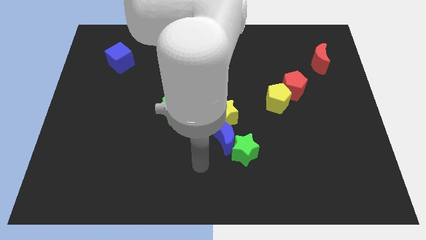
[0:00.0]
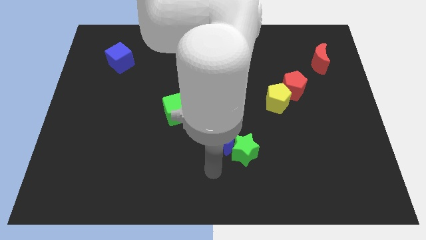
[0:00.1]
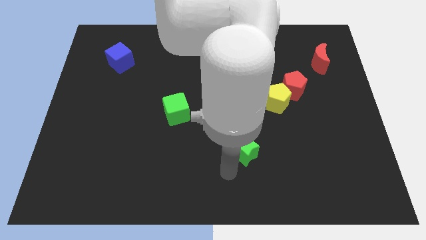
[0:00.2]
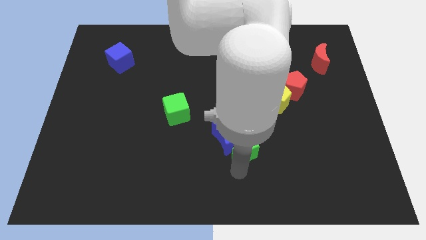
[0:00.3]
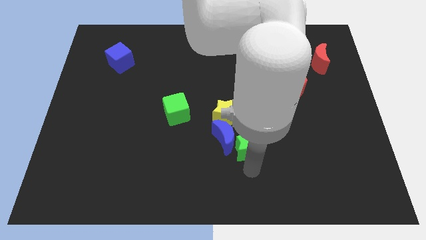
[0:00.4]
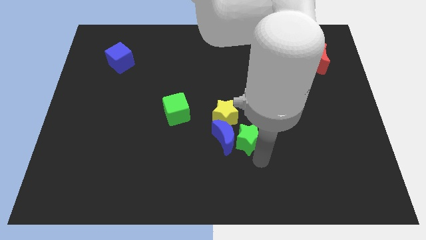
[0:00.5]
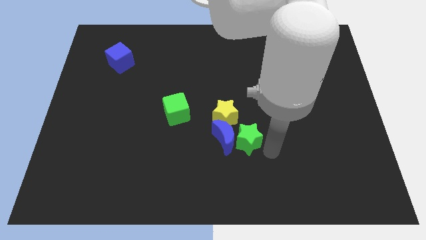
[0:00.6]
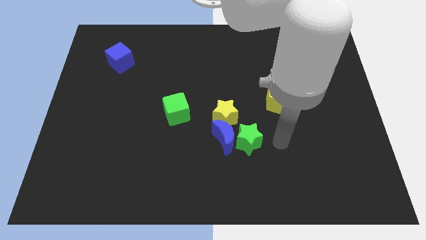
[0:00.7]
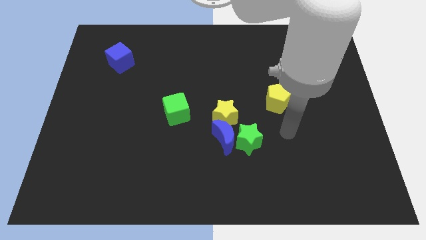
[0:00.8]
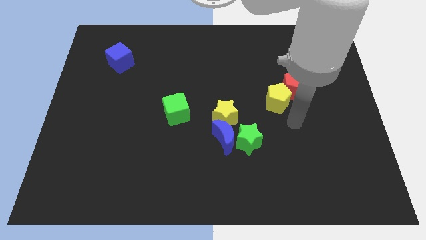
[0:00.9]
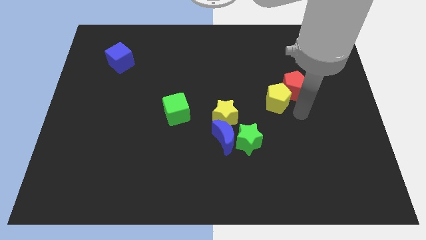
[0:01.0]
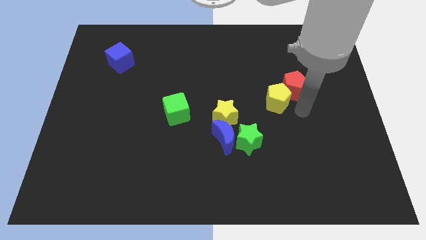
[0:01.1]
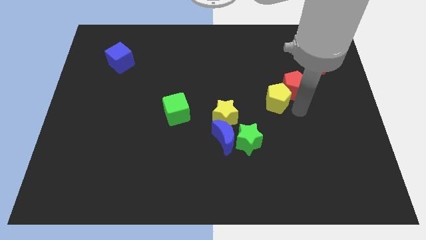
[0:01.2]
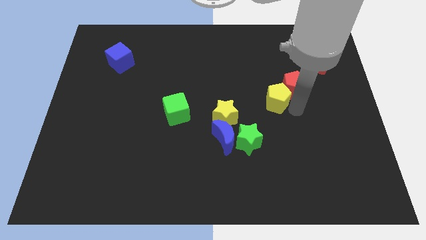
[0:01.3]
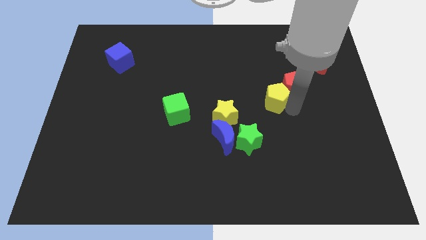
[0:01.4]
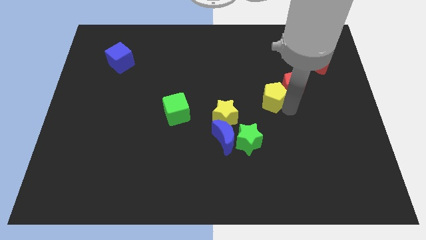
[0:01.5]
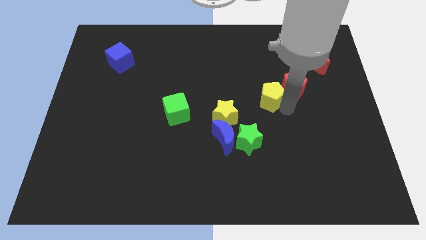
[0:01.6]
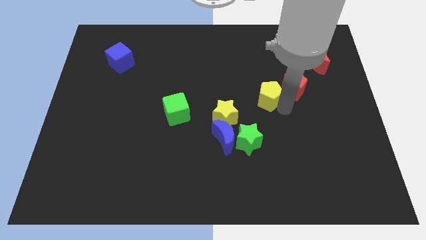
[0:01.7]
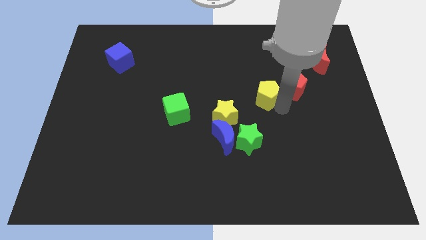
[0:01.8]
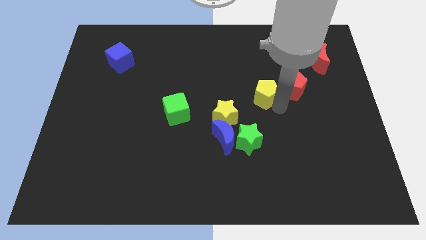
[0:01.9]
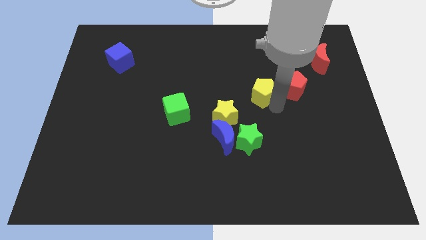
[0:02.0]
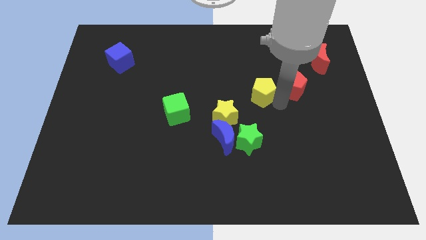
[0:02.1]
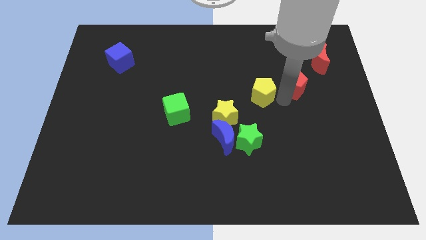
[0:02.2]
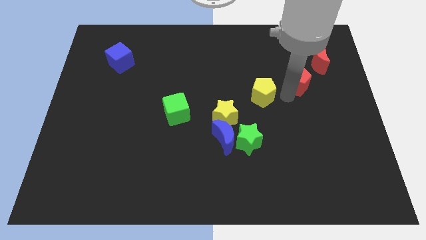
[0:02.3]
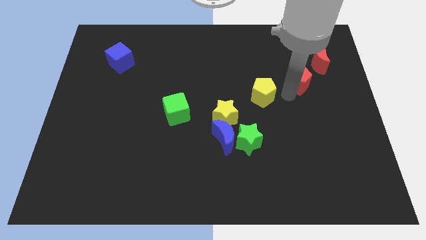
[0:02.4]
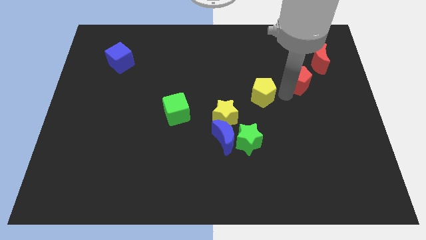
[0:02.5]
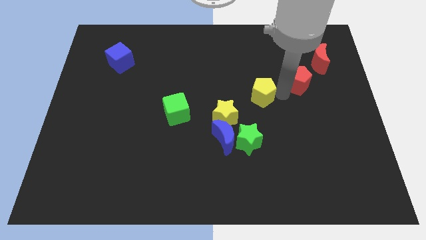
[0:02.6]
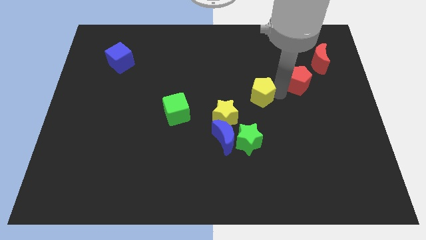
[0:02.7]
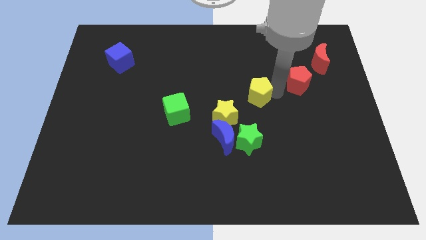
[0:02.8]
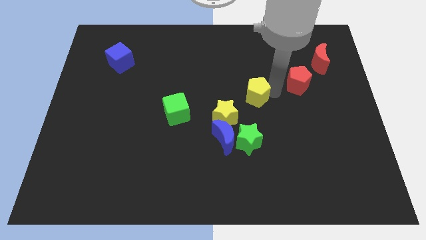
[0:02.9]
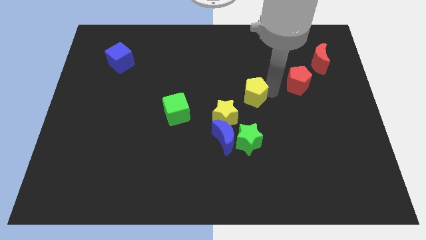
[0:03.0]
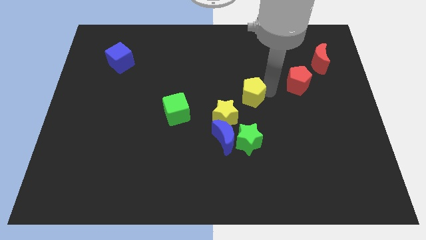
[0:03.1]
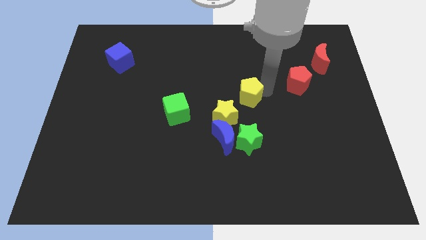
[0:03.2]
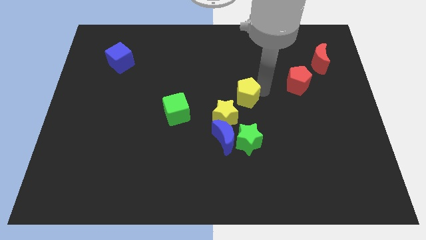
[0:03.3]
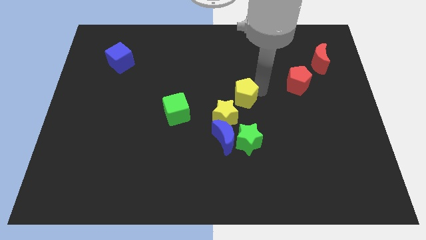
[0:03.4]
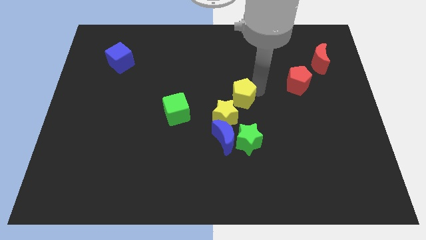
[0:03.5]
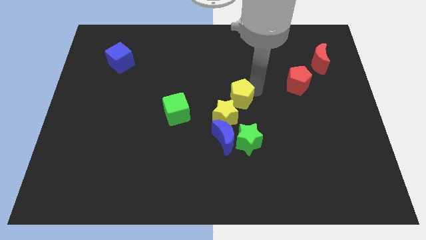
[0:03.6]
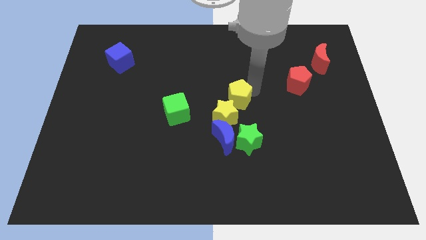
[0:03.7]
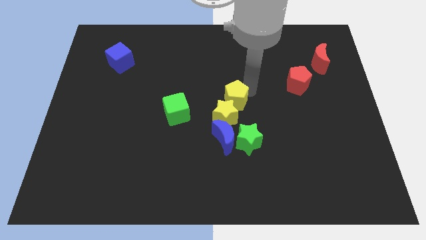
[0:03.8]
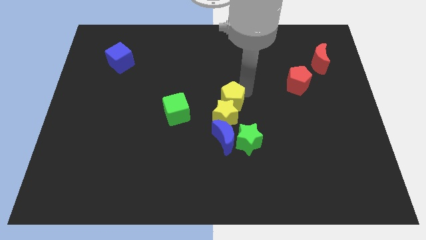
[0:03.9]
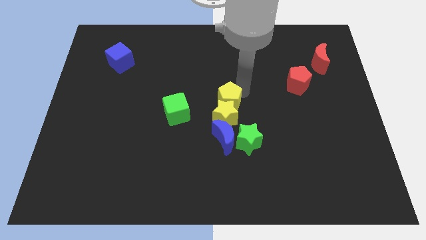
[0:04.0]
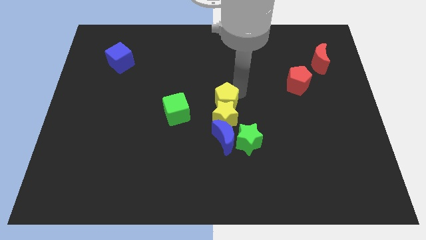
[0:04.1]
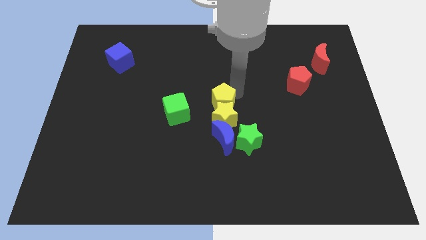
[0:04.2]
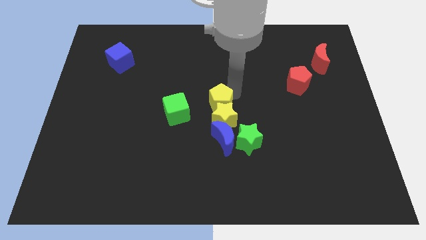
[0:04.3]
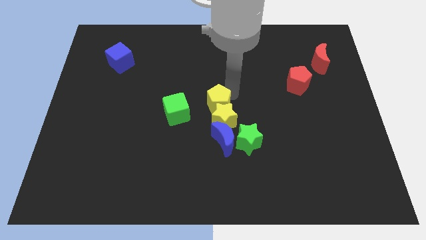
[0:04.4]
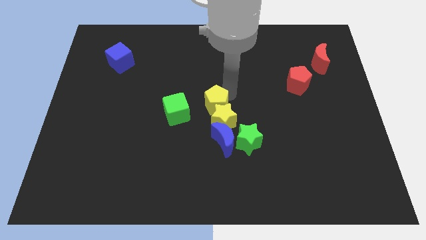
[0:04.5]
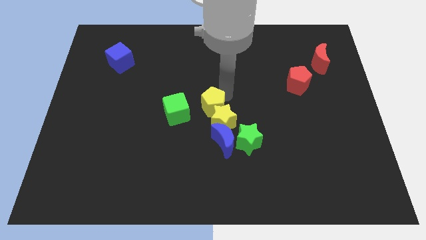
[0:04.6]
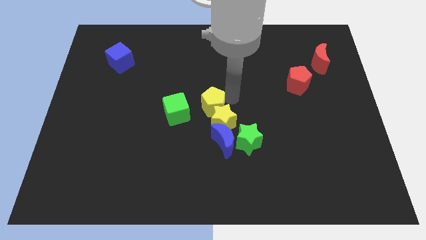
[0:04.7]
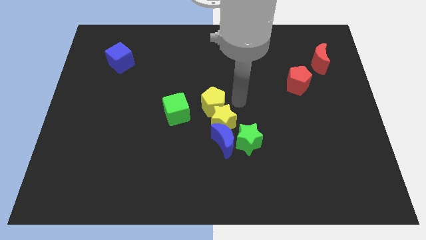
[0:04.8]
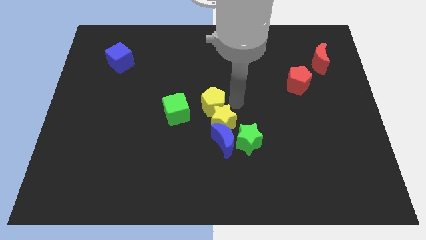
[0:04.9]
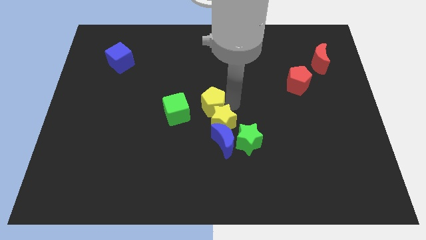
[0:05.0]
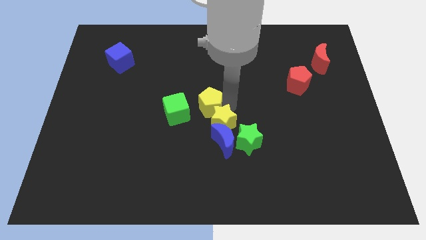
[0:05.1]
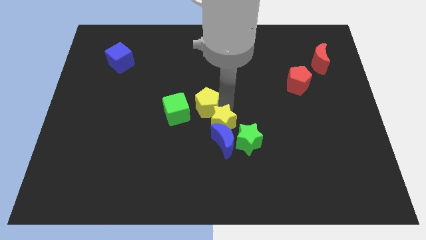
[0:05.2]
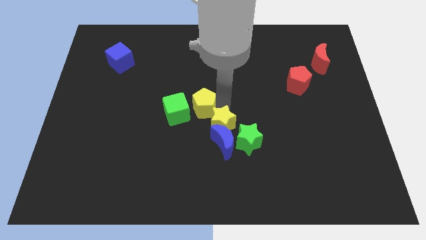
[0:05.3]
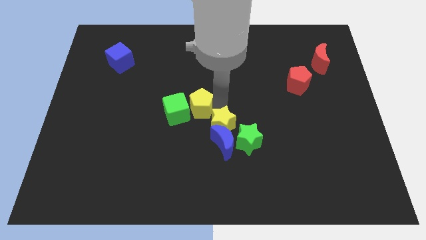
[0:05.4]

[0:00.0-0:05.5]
slide the yellow pentagon next to the green cube

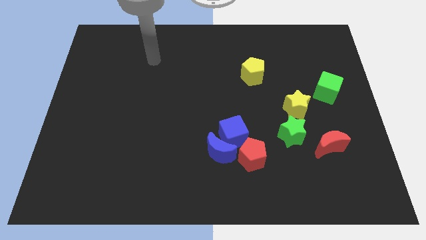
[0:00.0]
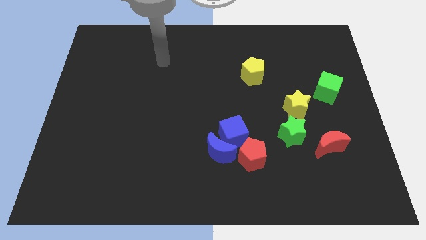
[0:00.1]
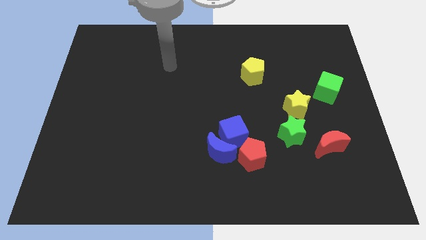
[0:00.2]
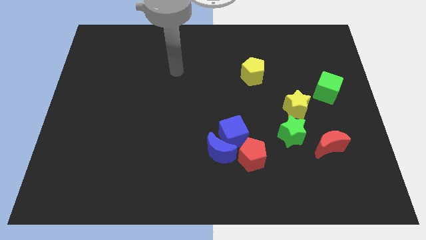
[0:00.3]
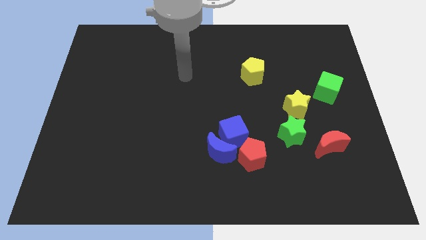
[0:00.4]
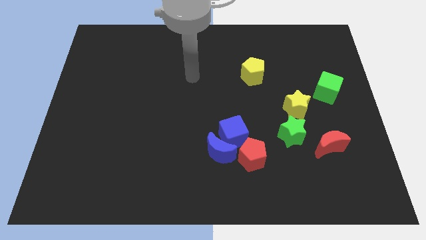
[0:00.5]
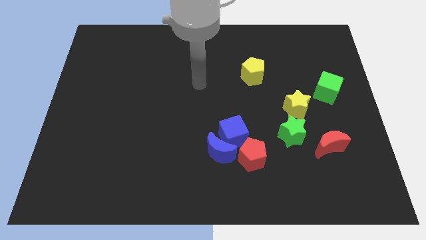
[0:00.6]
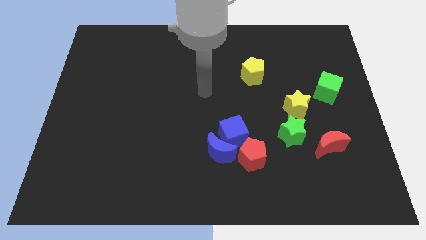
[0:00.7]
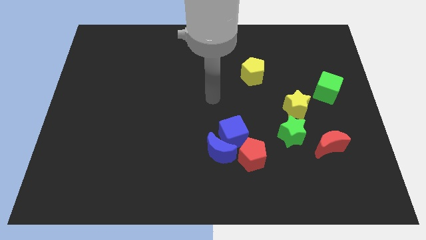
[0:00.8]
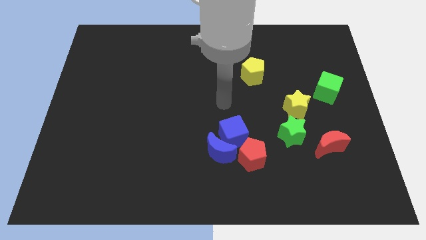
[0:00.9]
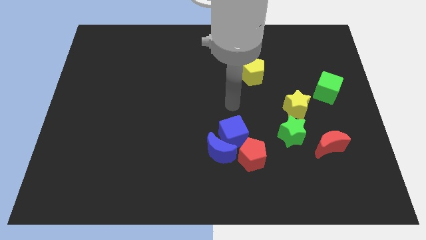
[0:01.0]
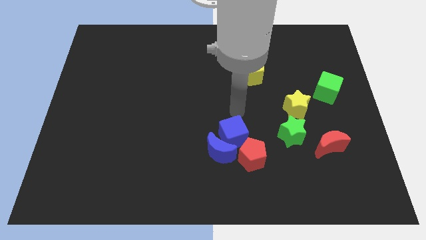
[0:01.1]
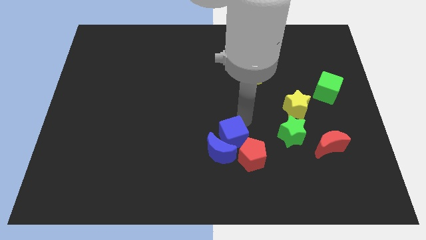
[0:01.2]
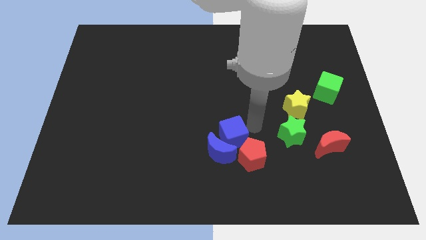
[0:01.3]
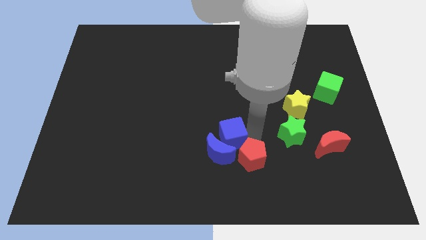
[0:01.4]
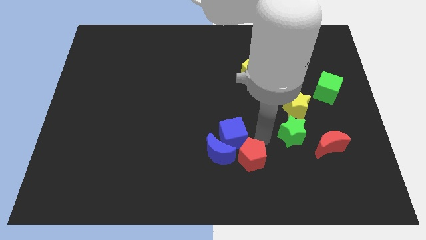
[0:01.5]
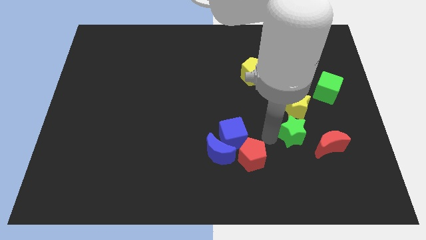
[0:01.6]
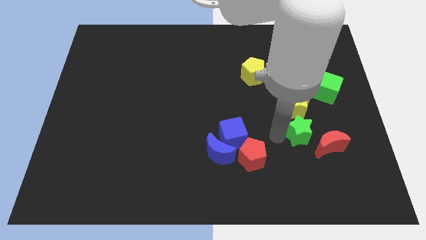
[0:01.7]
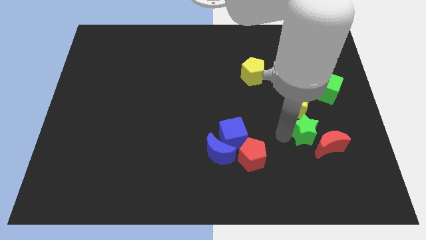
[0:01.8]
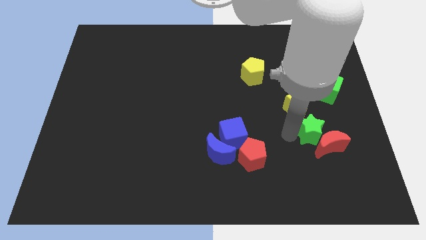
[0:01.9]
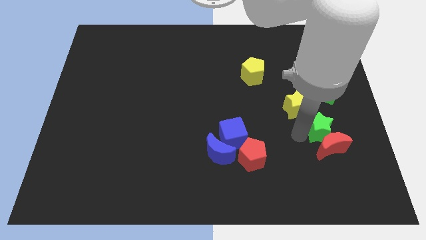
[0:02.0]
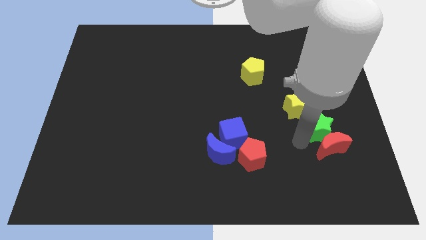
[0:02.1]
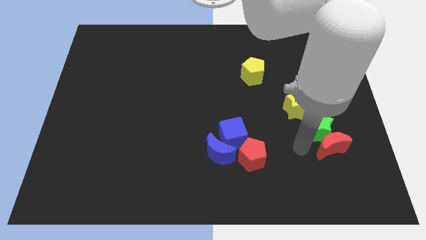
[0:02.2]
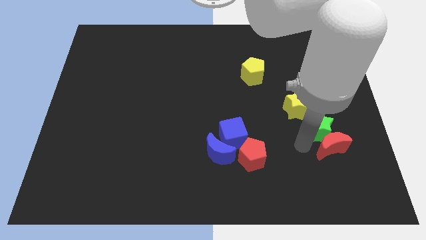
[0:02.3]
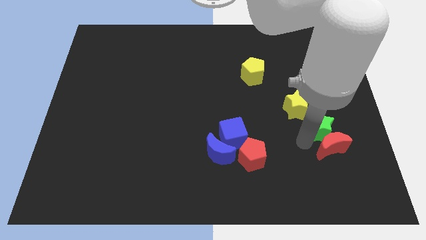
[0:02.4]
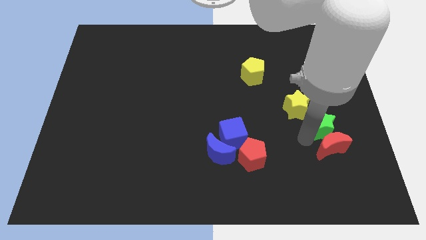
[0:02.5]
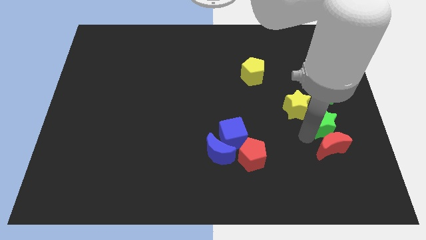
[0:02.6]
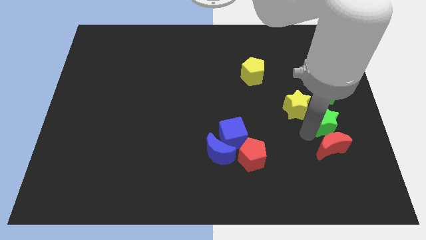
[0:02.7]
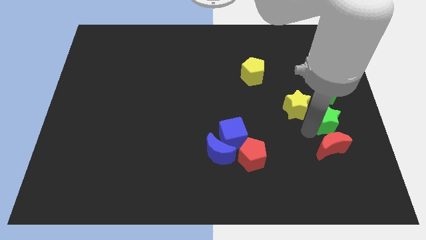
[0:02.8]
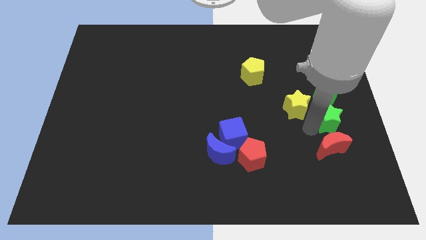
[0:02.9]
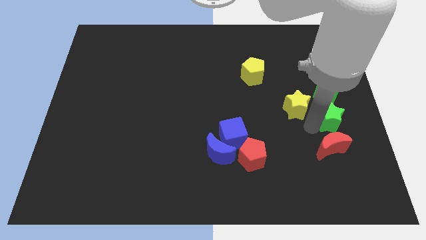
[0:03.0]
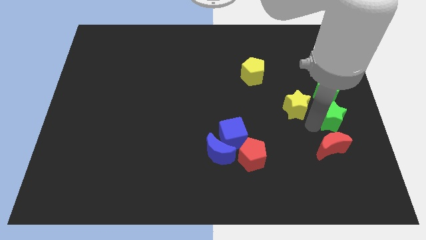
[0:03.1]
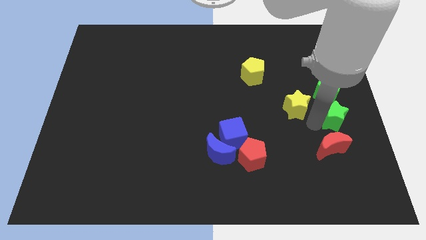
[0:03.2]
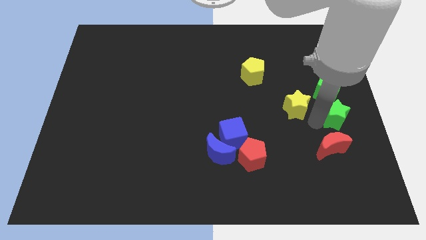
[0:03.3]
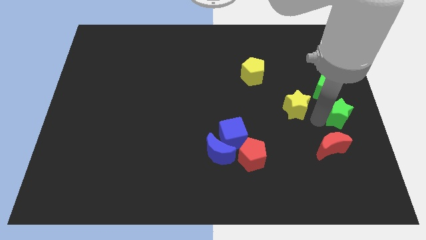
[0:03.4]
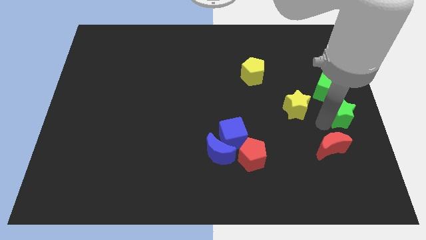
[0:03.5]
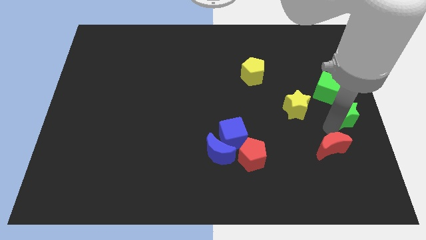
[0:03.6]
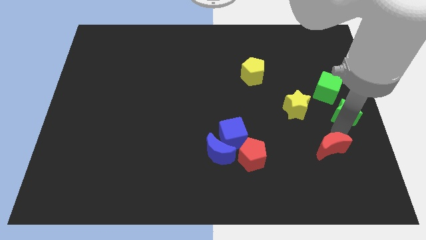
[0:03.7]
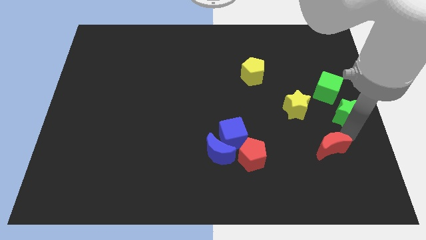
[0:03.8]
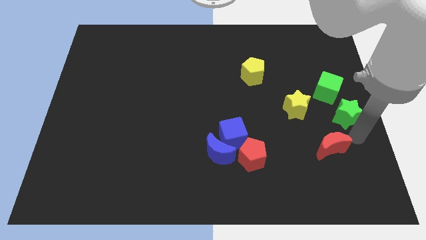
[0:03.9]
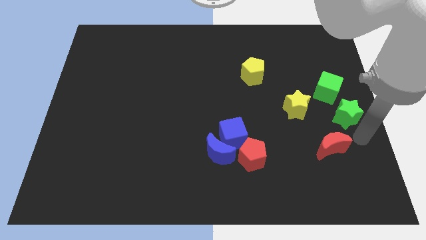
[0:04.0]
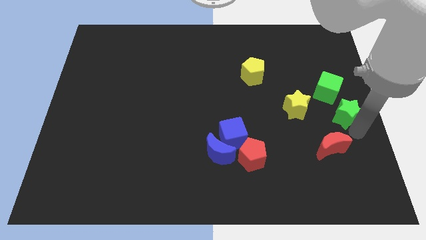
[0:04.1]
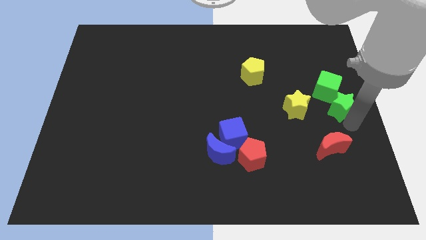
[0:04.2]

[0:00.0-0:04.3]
move the green star towards the green cube
